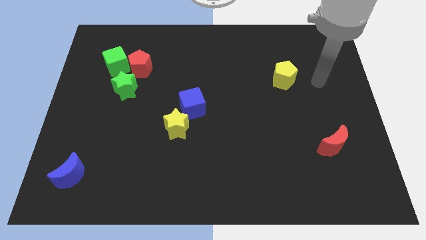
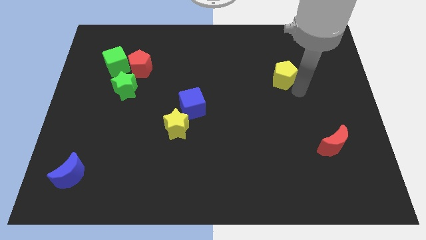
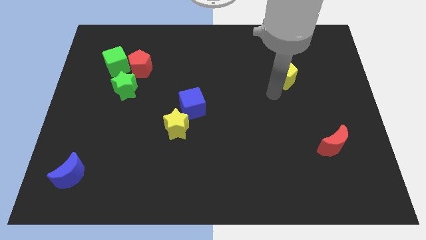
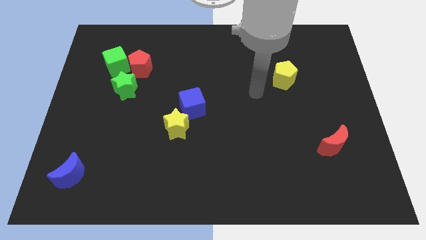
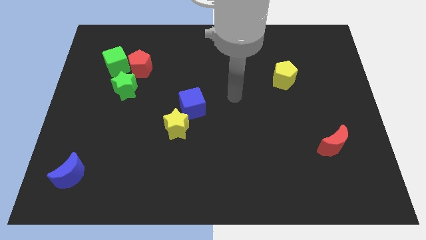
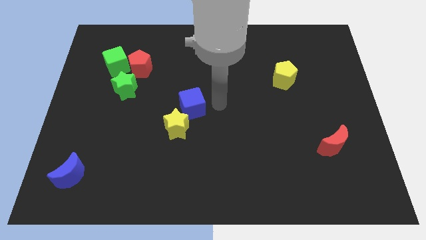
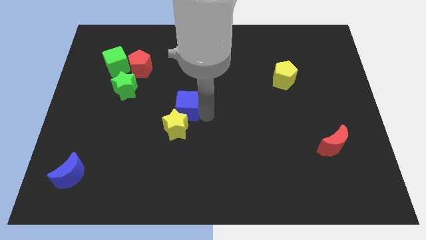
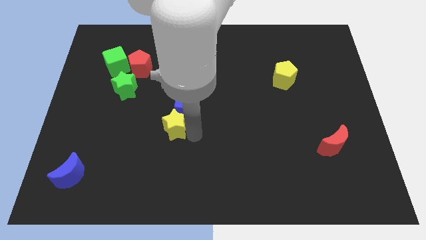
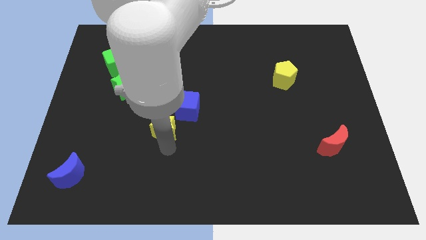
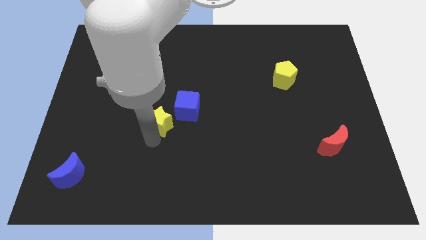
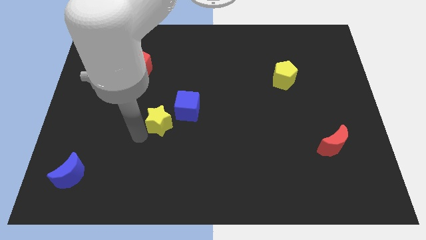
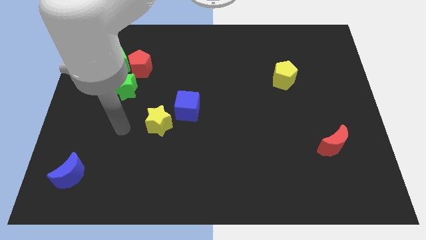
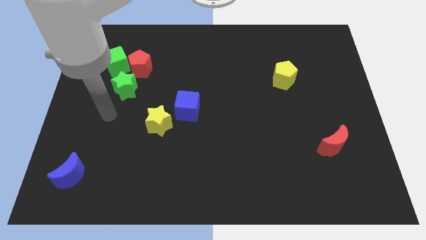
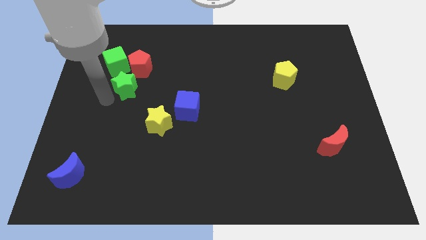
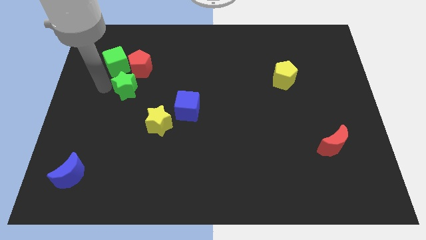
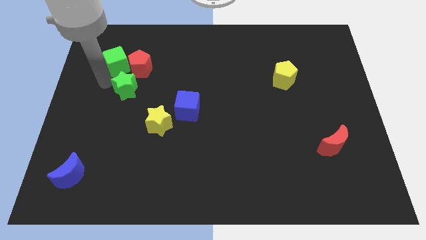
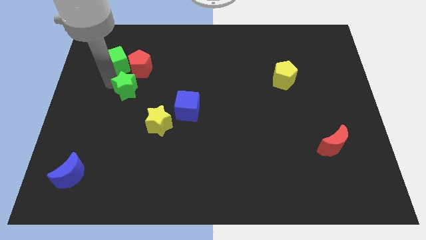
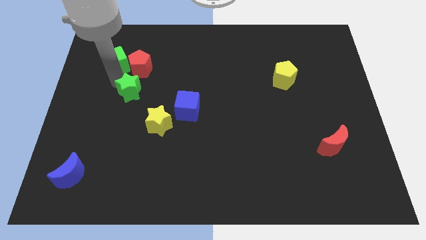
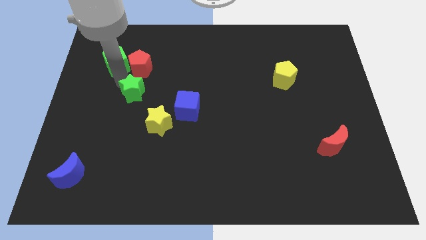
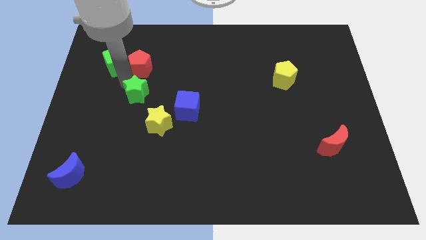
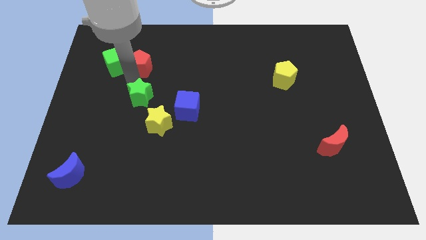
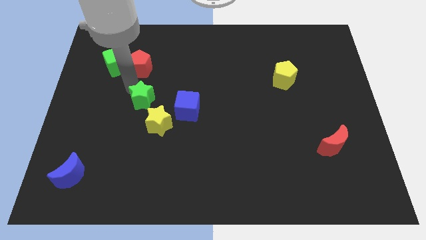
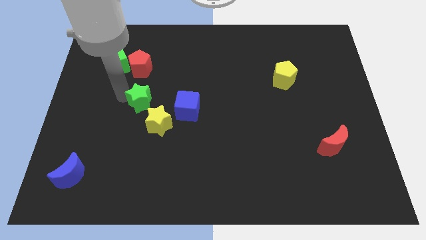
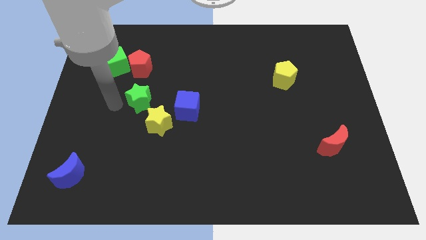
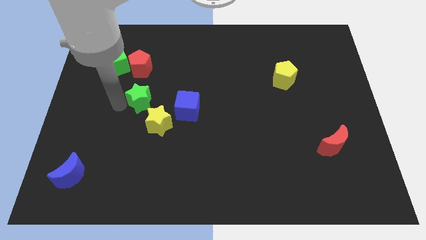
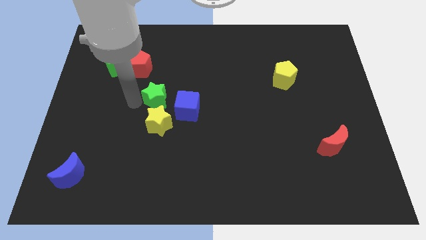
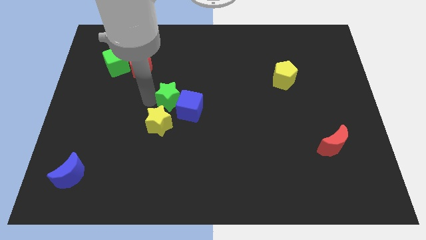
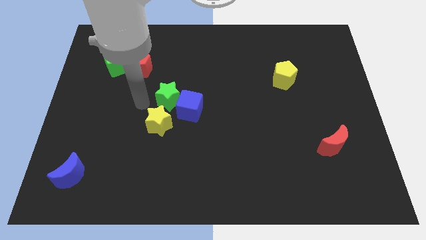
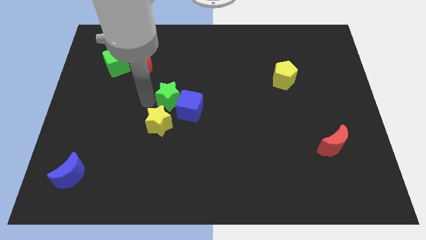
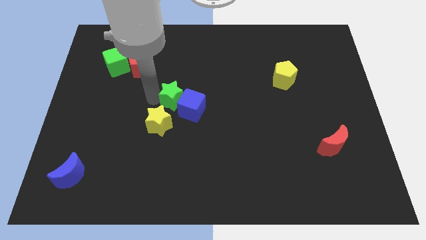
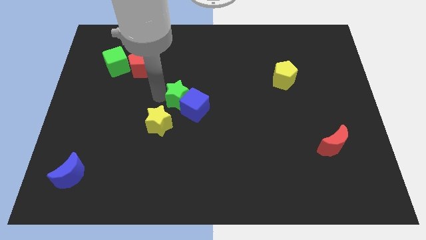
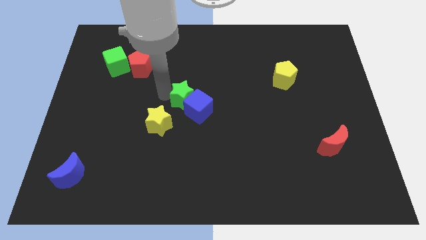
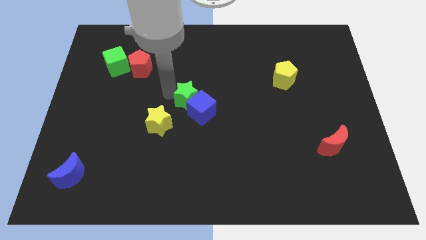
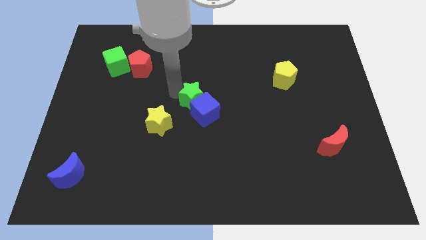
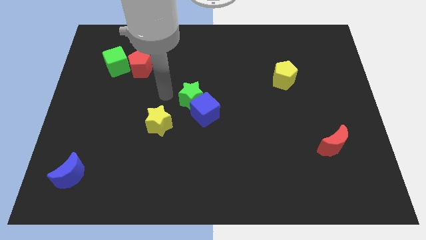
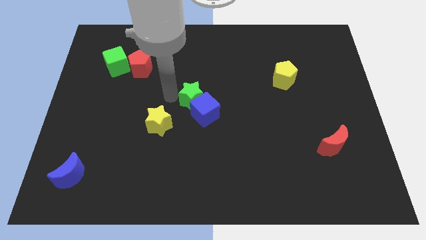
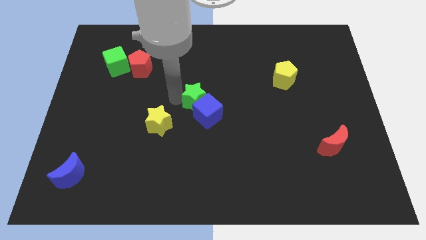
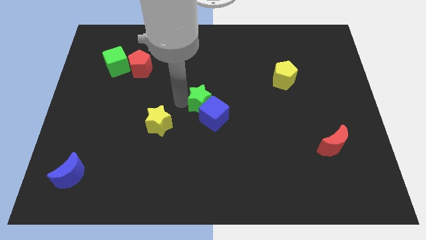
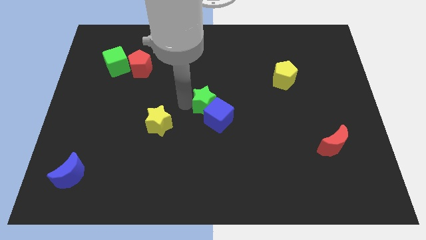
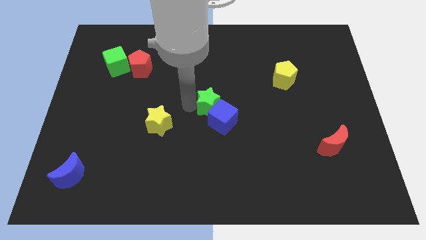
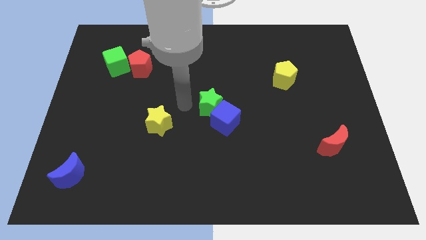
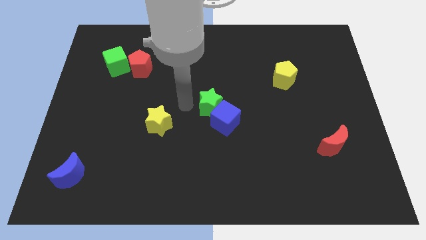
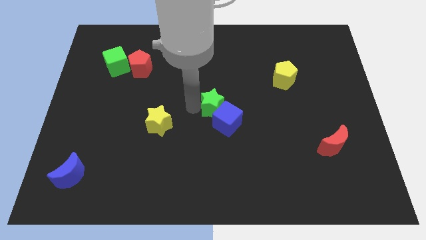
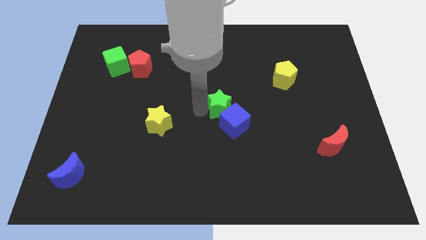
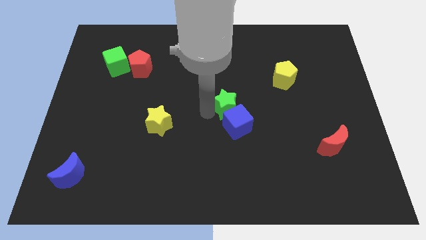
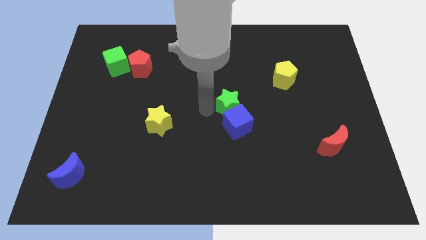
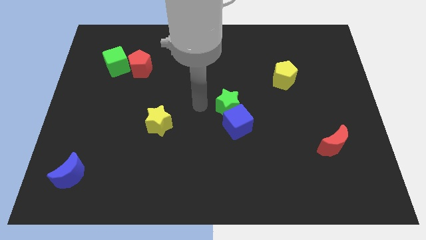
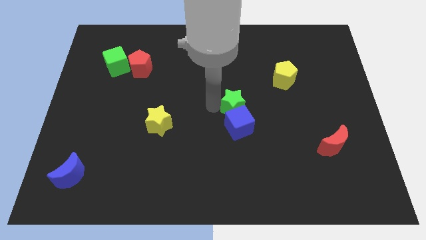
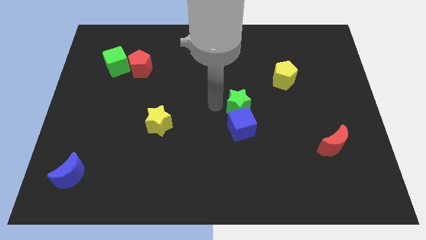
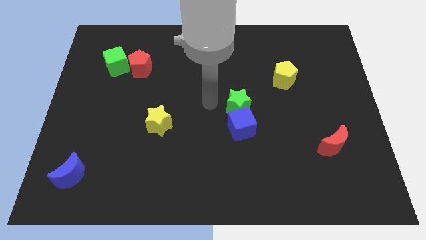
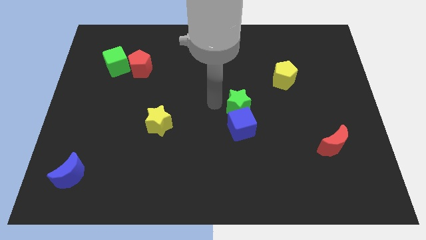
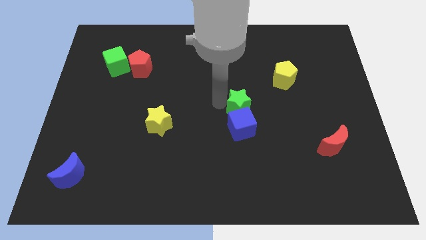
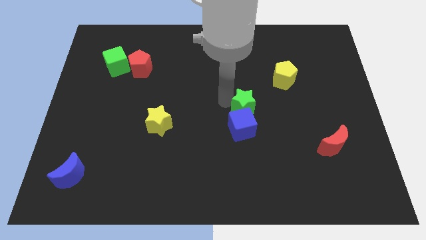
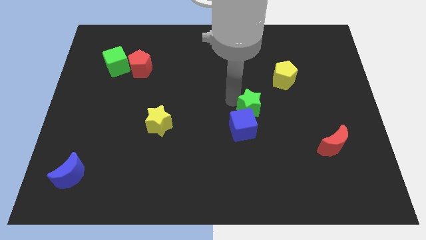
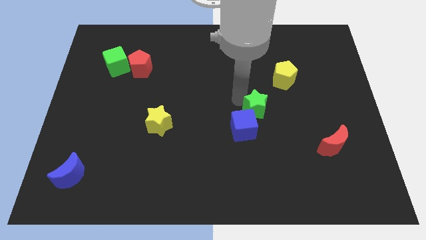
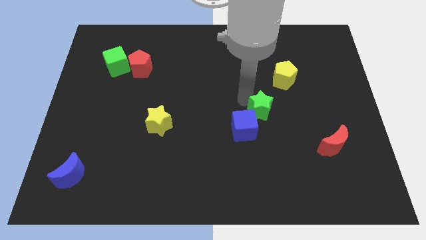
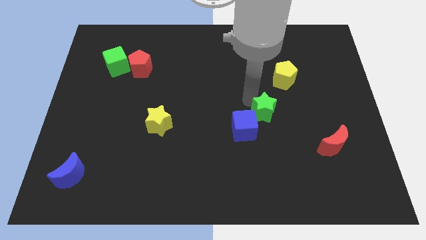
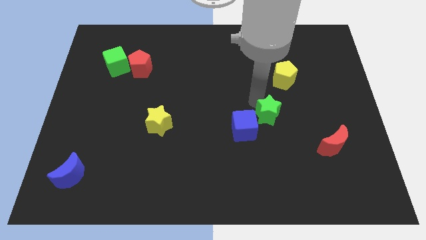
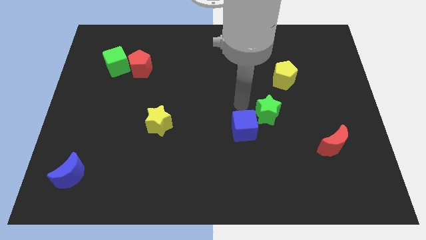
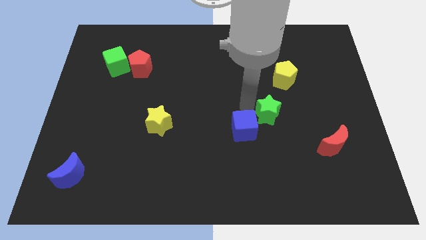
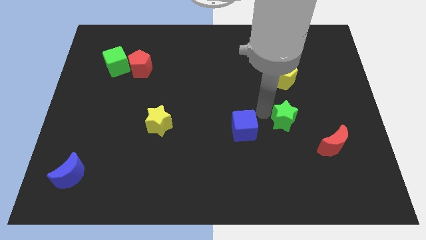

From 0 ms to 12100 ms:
push the green star to the top left of the red moon
